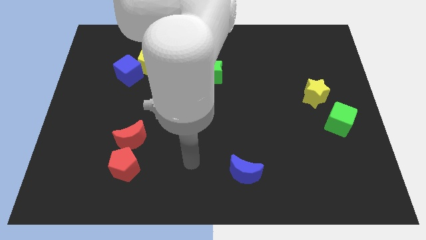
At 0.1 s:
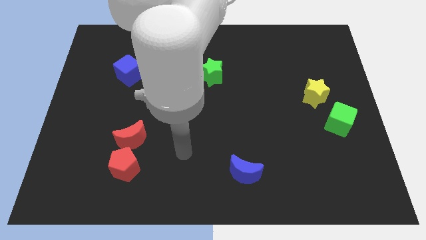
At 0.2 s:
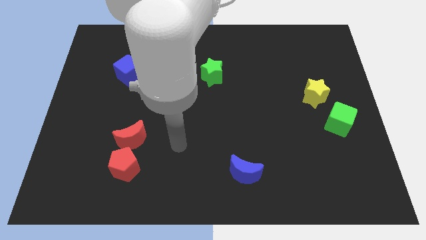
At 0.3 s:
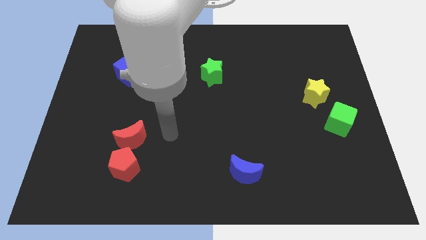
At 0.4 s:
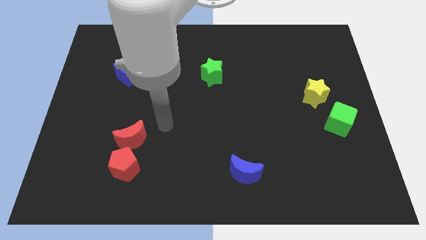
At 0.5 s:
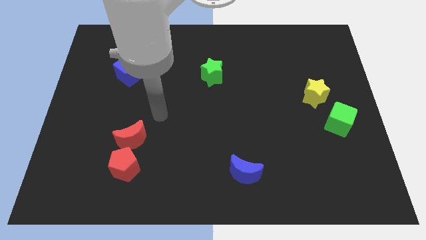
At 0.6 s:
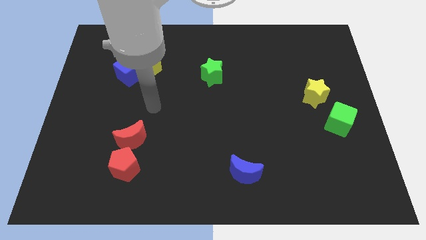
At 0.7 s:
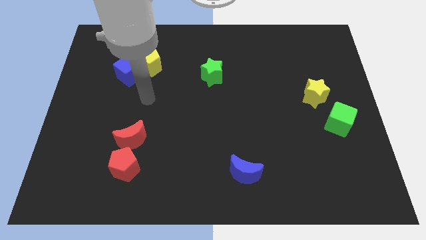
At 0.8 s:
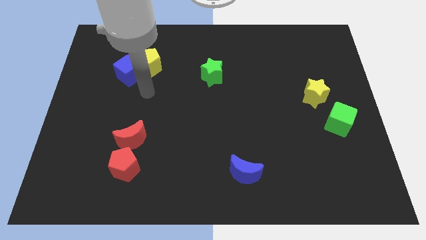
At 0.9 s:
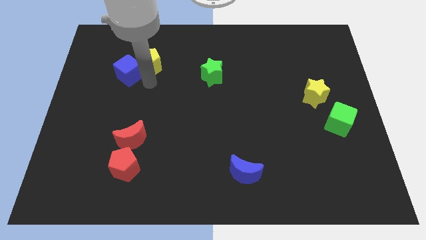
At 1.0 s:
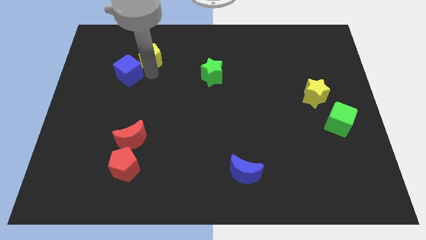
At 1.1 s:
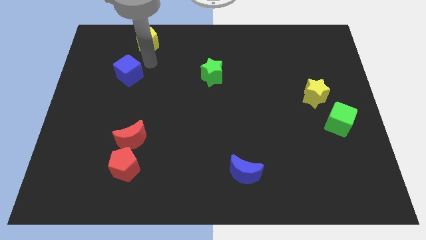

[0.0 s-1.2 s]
separate the blue cube from the yellow pentagon

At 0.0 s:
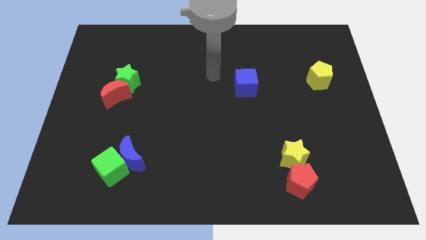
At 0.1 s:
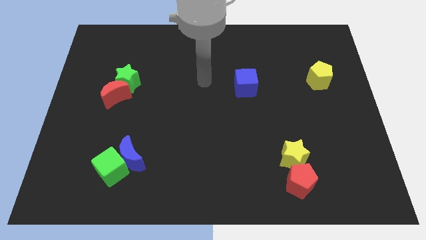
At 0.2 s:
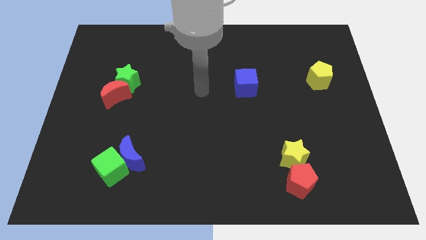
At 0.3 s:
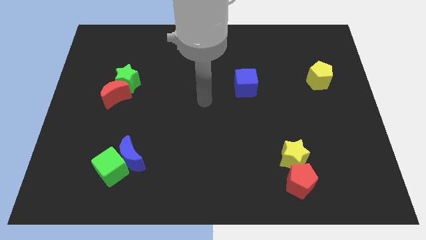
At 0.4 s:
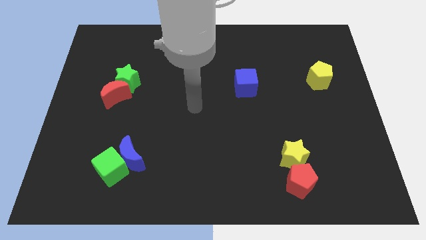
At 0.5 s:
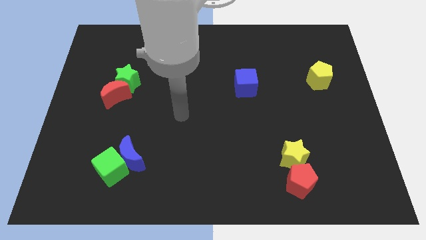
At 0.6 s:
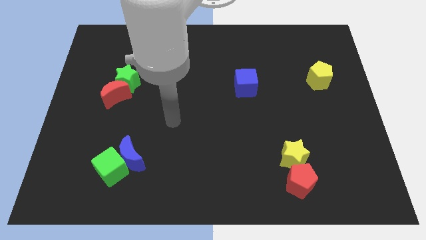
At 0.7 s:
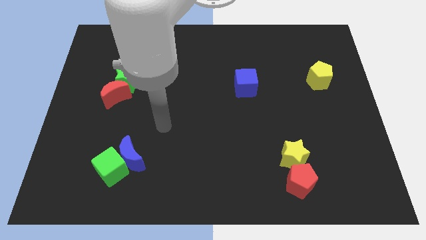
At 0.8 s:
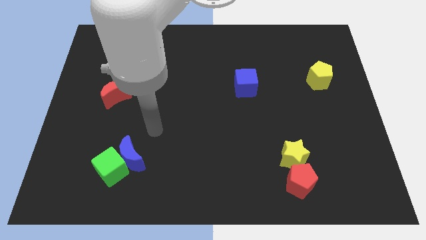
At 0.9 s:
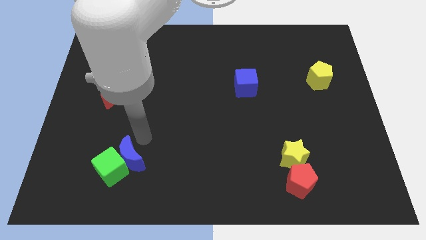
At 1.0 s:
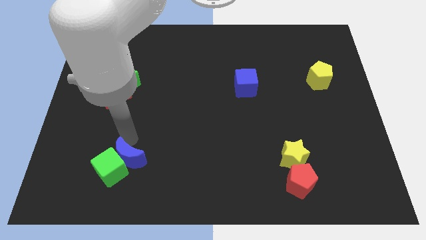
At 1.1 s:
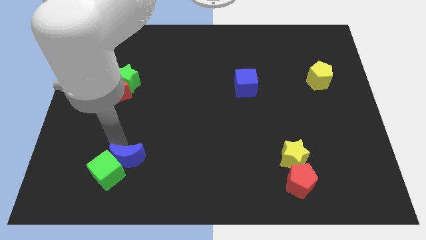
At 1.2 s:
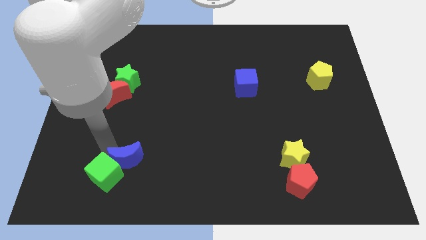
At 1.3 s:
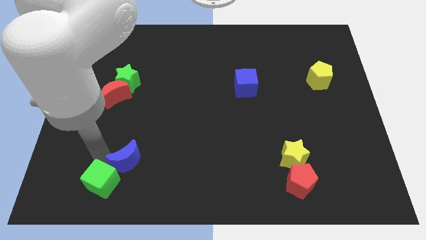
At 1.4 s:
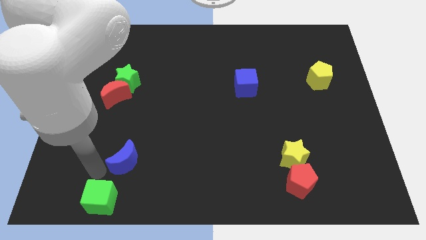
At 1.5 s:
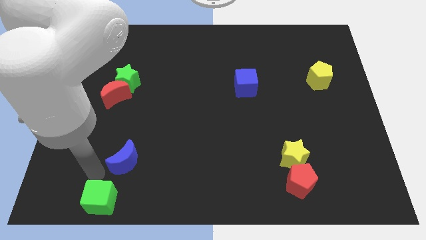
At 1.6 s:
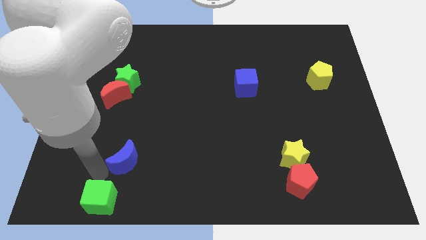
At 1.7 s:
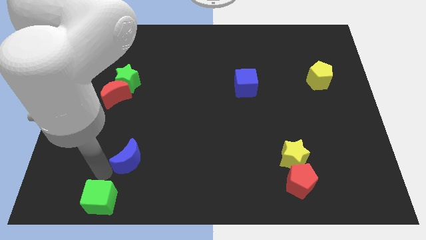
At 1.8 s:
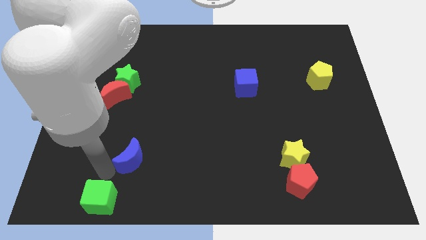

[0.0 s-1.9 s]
separate the blue moon from the green cube

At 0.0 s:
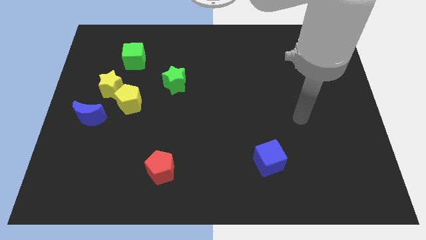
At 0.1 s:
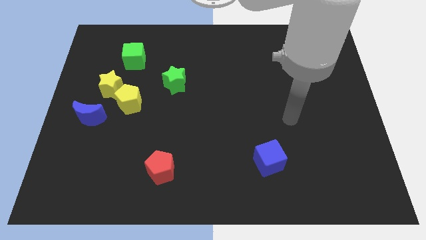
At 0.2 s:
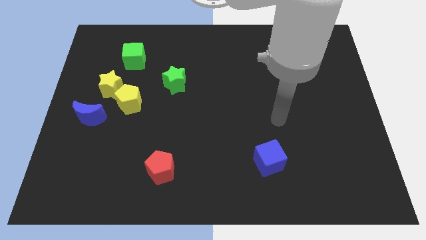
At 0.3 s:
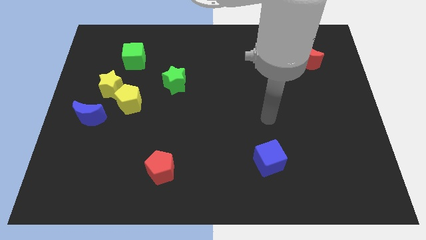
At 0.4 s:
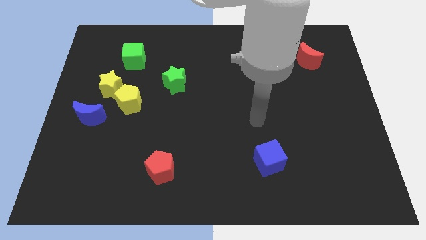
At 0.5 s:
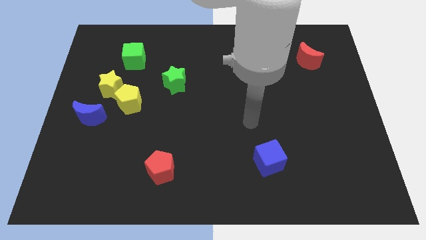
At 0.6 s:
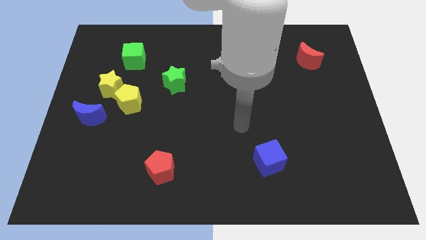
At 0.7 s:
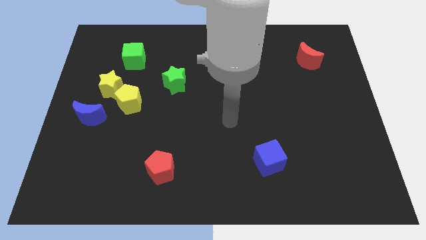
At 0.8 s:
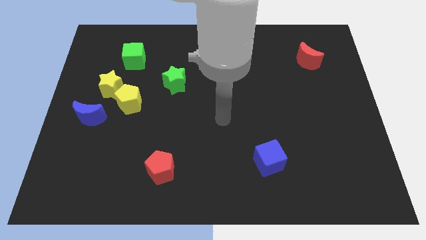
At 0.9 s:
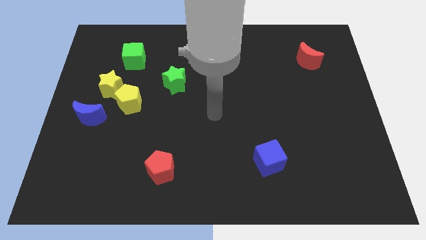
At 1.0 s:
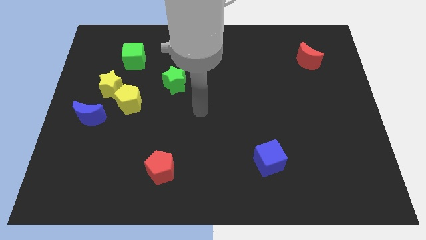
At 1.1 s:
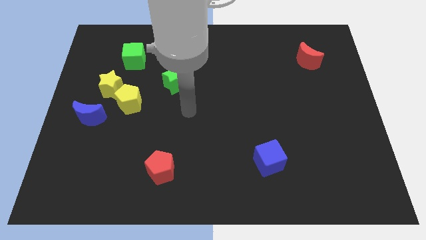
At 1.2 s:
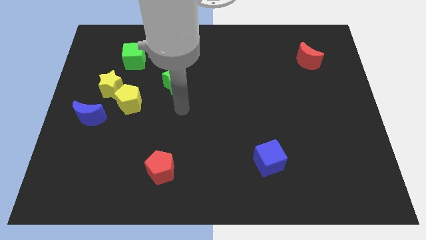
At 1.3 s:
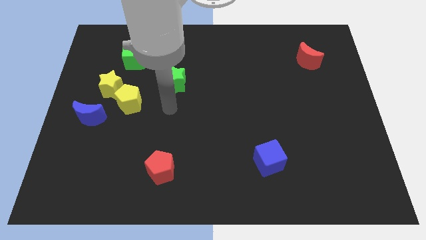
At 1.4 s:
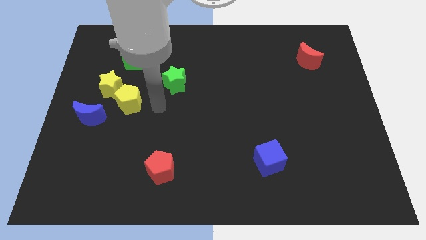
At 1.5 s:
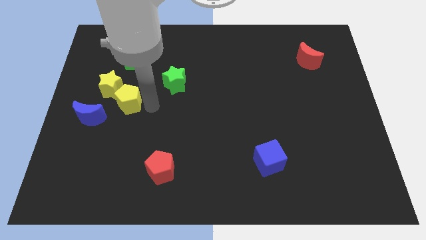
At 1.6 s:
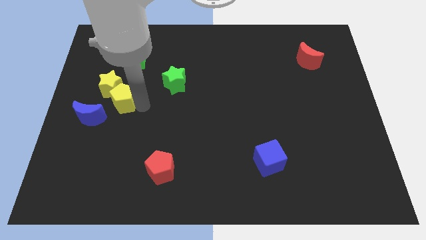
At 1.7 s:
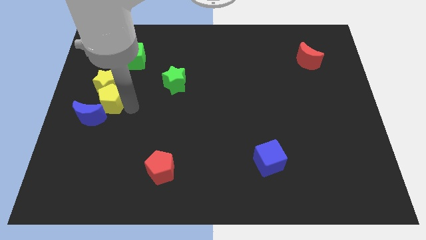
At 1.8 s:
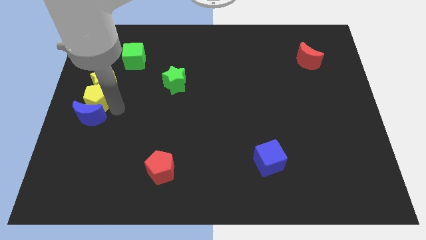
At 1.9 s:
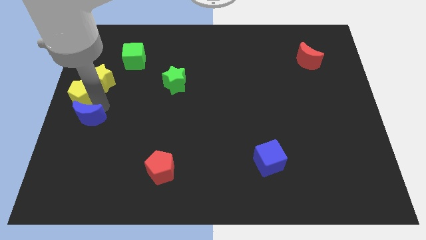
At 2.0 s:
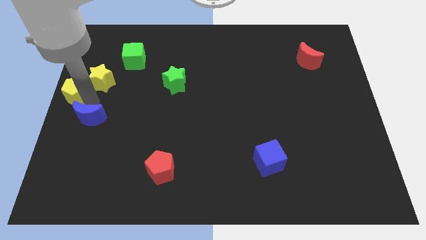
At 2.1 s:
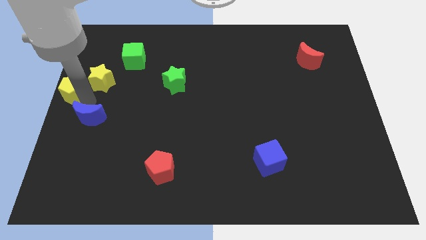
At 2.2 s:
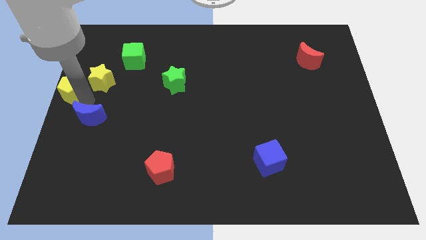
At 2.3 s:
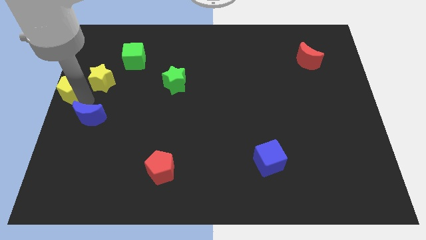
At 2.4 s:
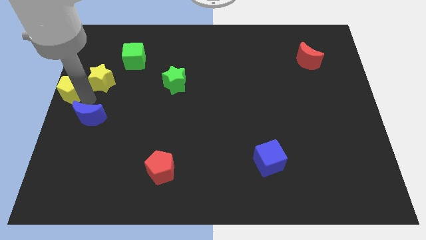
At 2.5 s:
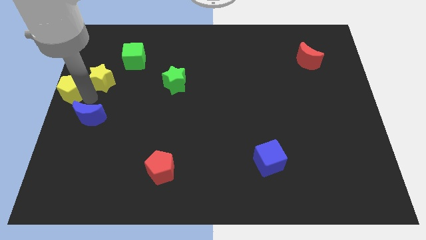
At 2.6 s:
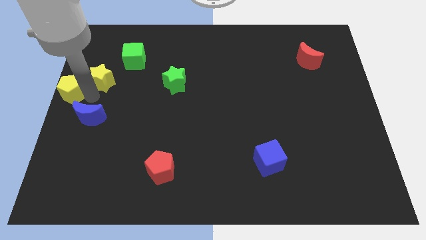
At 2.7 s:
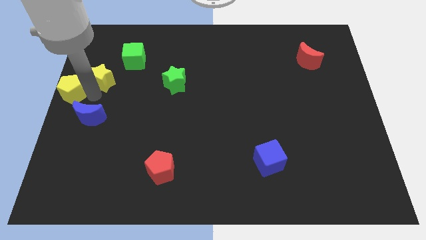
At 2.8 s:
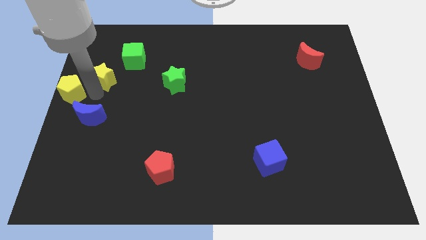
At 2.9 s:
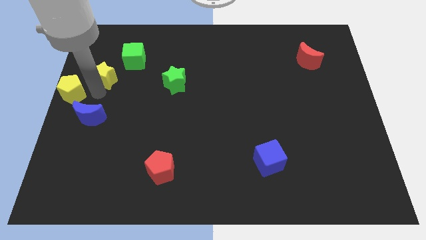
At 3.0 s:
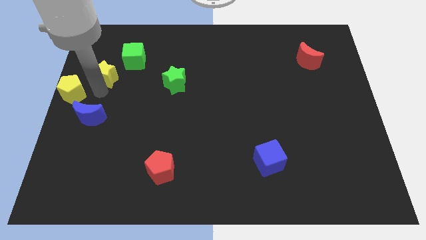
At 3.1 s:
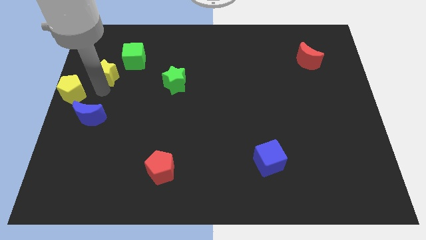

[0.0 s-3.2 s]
move the yellow star away from the yellow pentagon and blue moon

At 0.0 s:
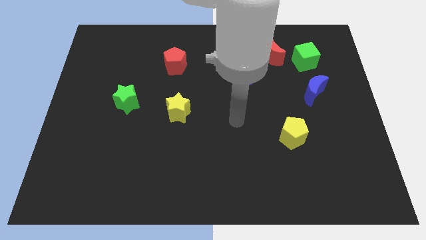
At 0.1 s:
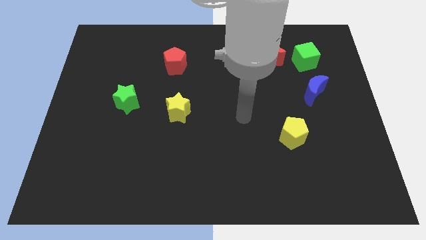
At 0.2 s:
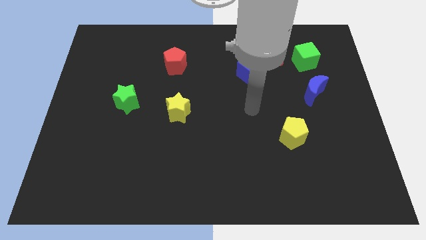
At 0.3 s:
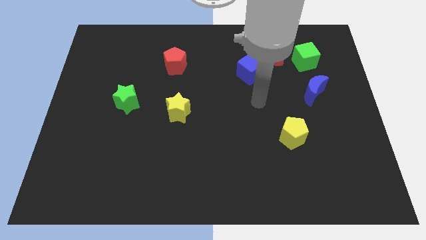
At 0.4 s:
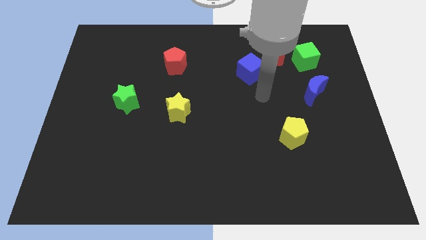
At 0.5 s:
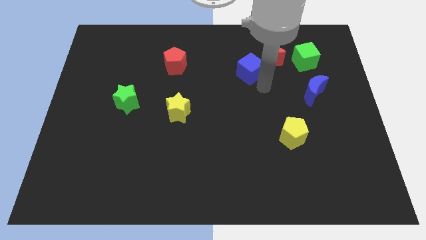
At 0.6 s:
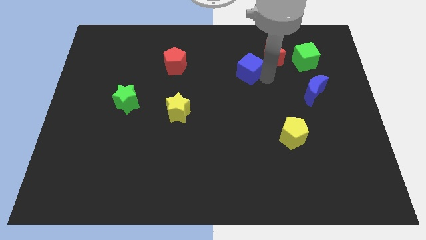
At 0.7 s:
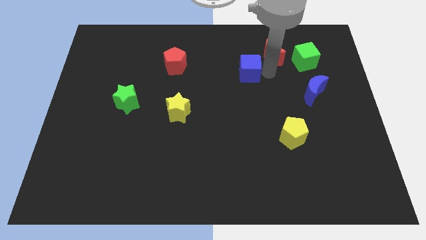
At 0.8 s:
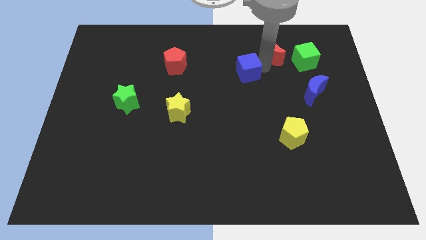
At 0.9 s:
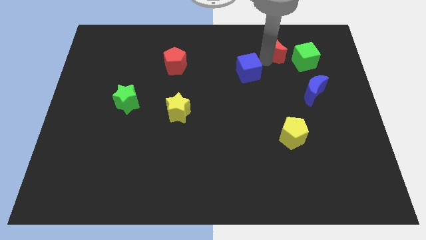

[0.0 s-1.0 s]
move the blue cube away from the red moon

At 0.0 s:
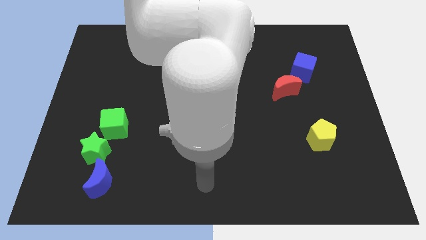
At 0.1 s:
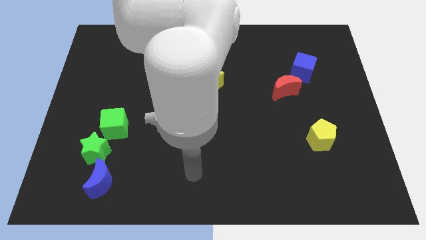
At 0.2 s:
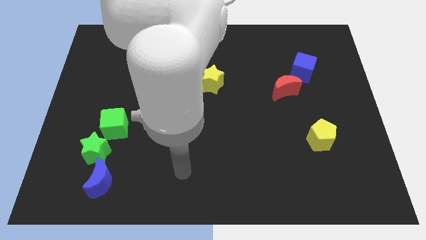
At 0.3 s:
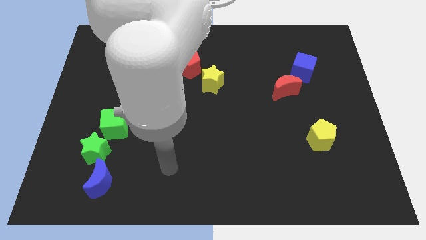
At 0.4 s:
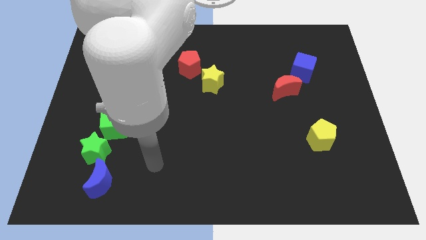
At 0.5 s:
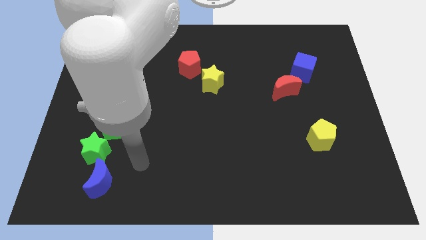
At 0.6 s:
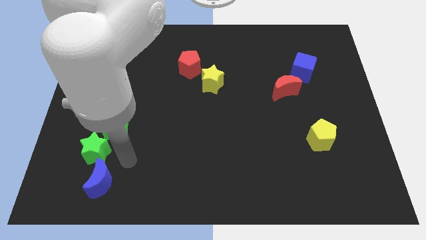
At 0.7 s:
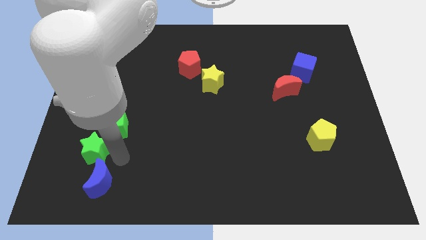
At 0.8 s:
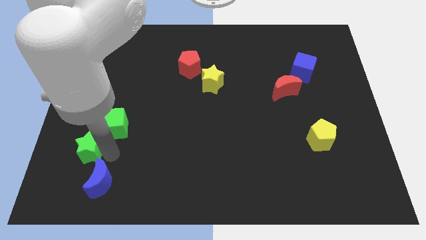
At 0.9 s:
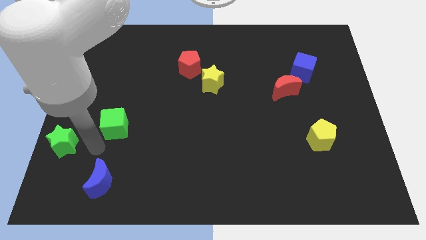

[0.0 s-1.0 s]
move the green cube away from the green star

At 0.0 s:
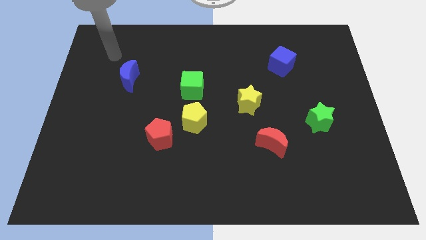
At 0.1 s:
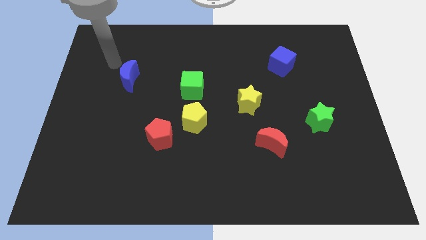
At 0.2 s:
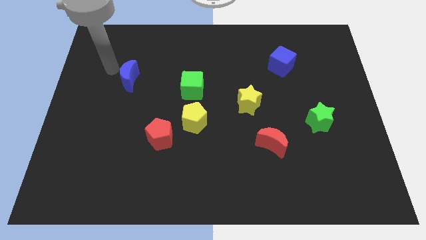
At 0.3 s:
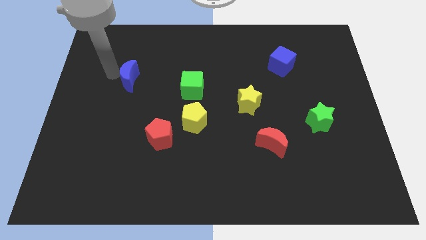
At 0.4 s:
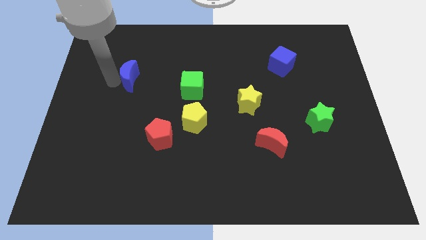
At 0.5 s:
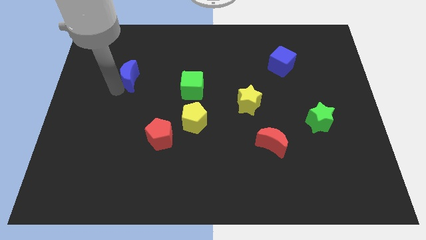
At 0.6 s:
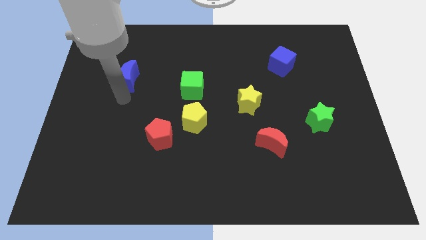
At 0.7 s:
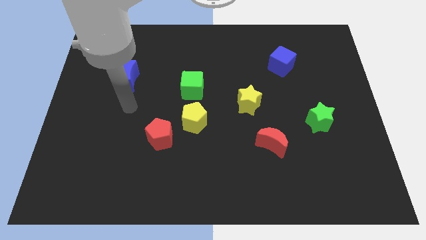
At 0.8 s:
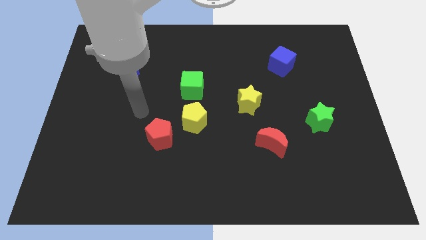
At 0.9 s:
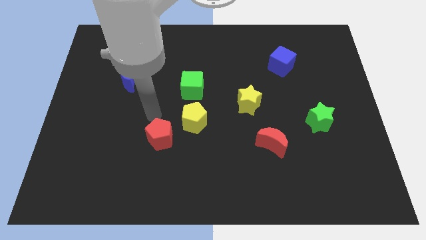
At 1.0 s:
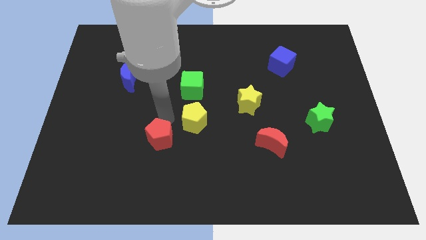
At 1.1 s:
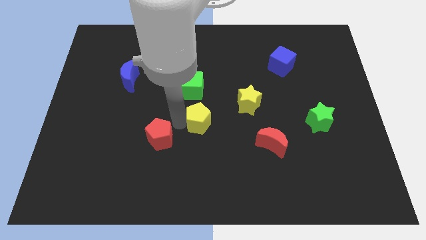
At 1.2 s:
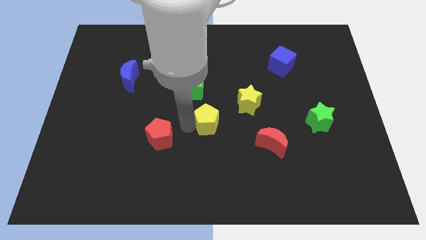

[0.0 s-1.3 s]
separate the red pentagon from the yellow pentagon
